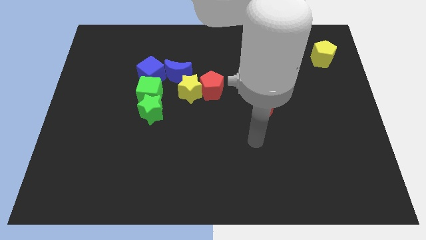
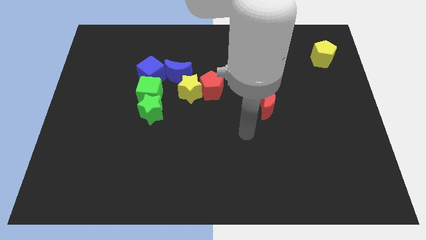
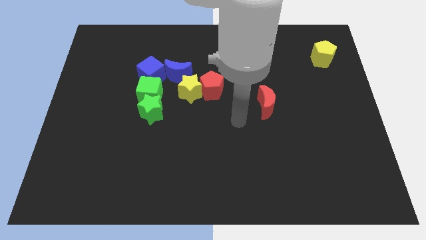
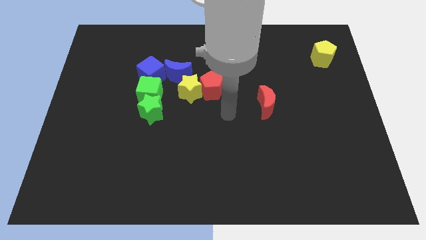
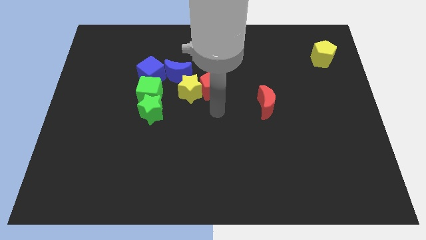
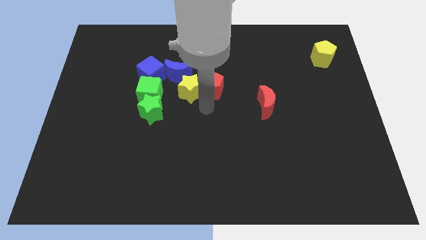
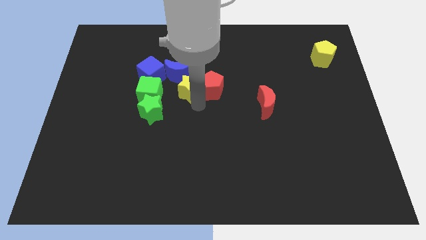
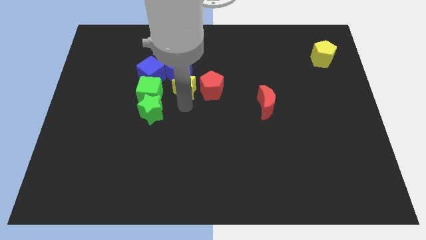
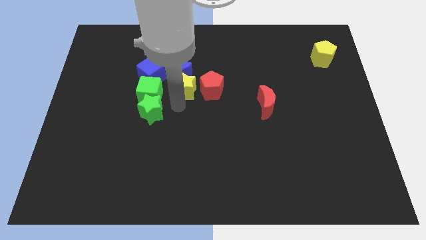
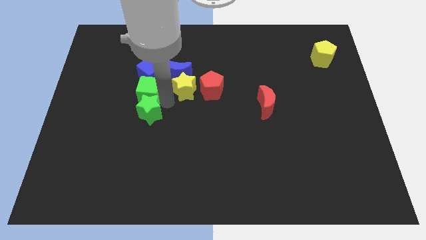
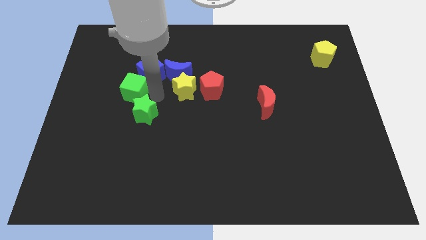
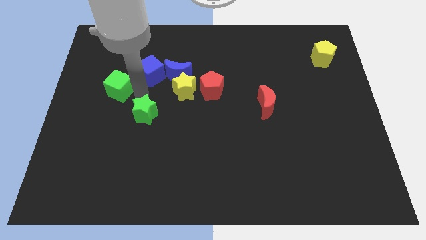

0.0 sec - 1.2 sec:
separate the green star from the green cube

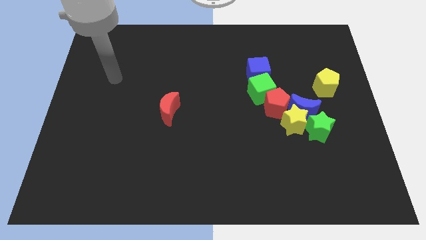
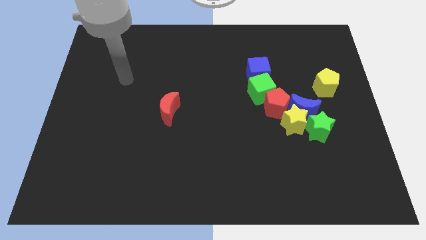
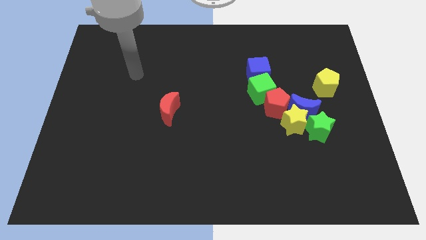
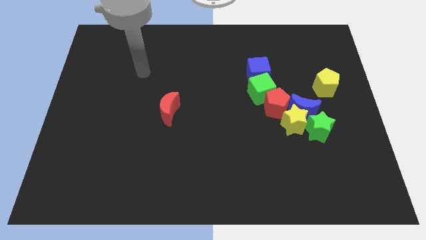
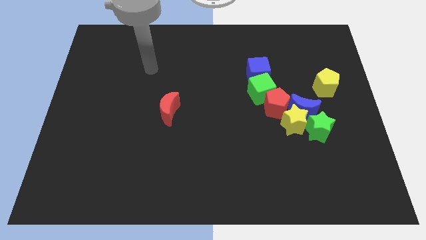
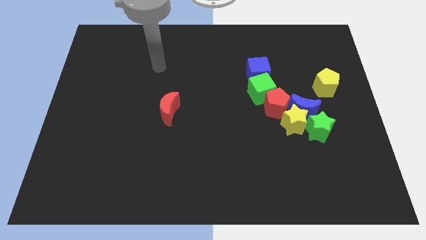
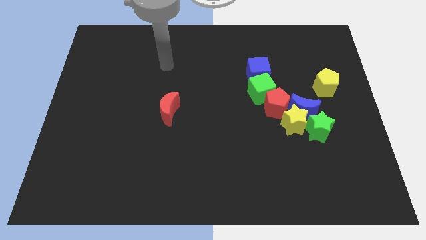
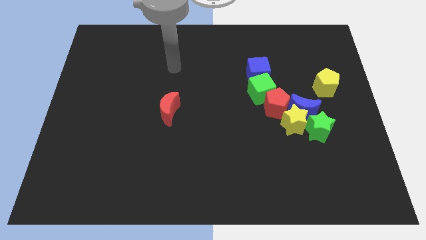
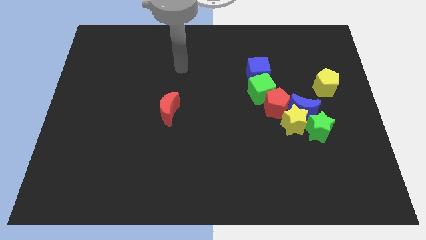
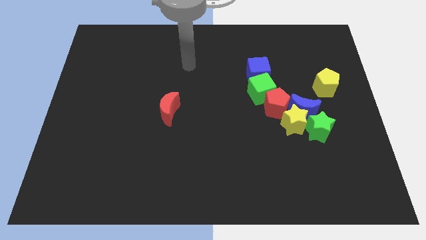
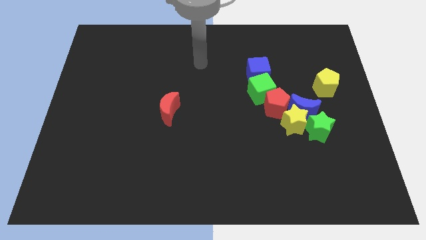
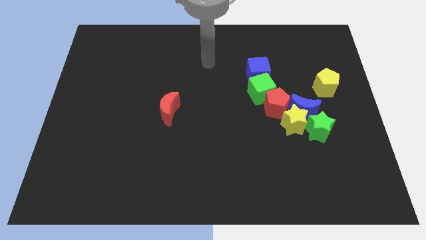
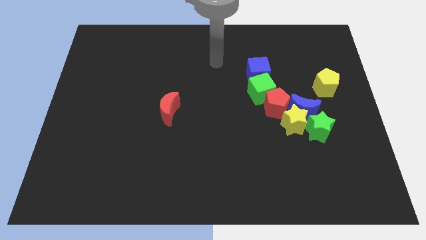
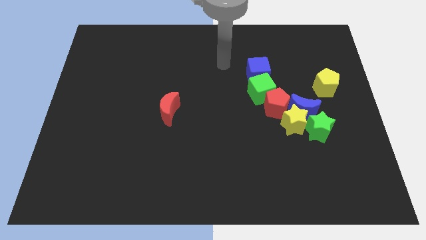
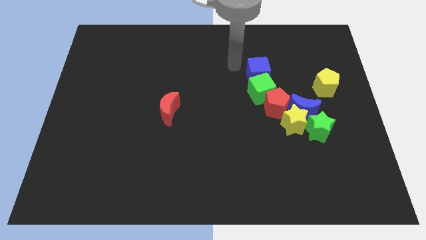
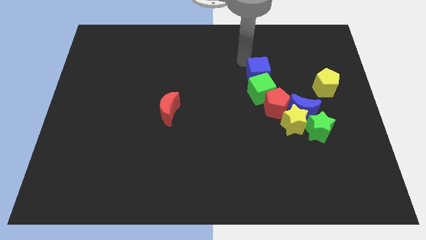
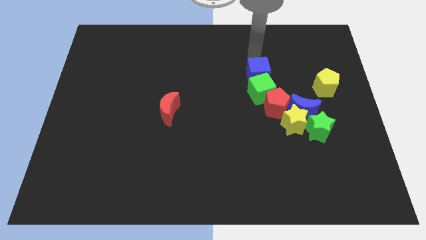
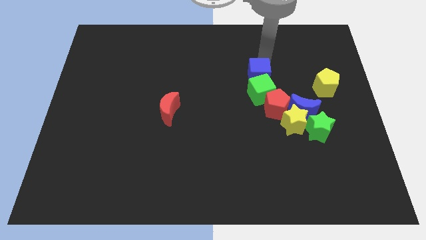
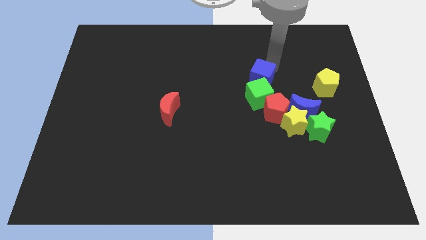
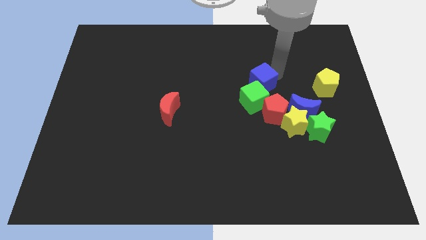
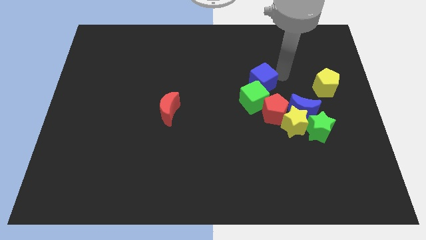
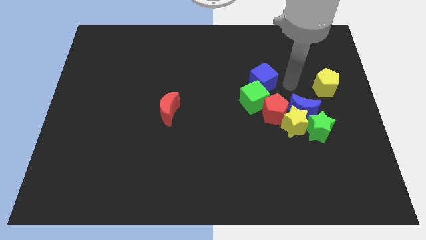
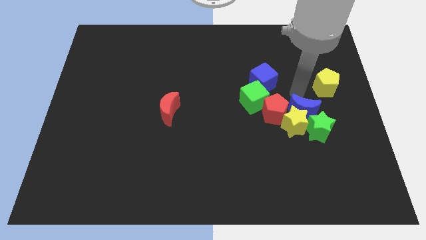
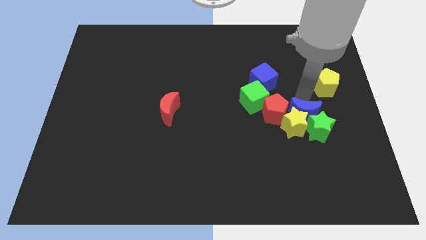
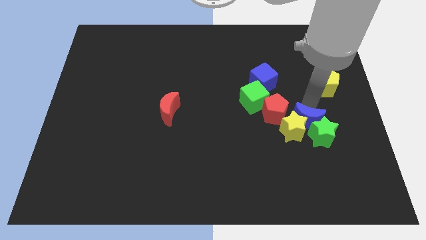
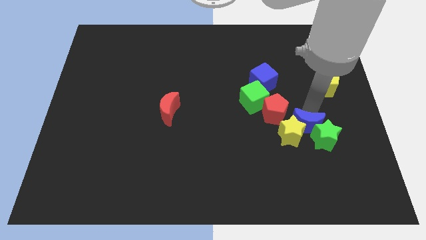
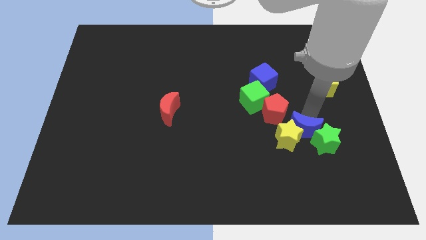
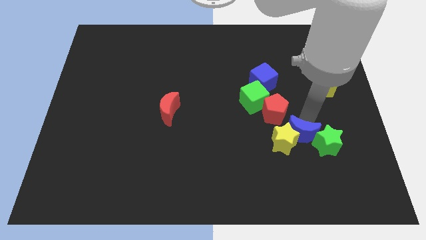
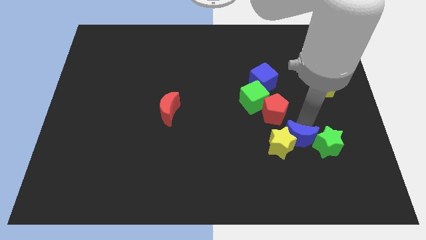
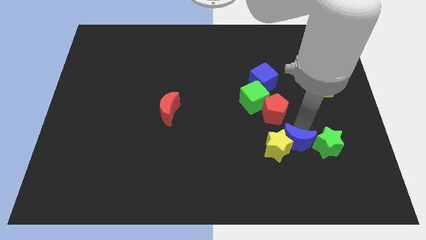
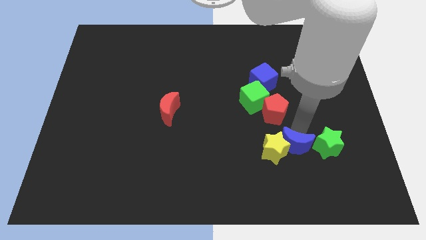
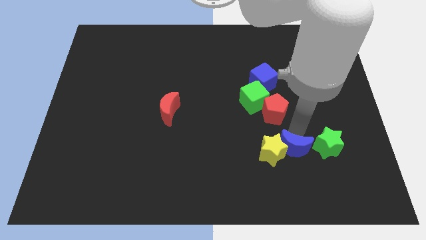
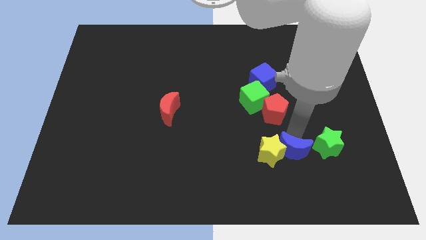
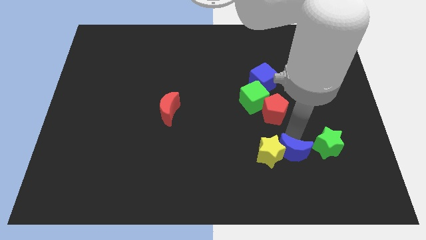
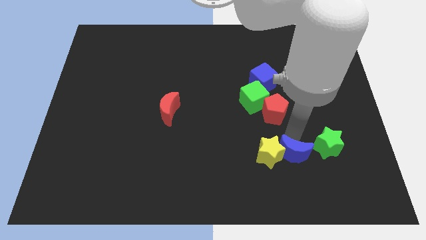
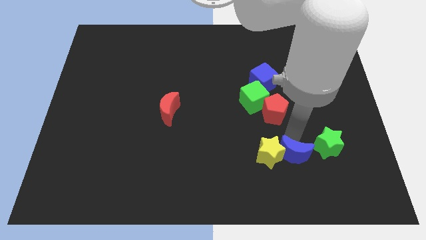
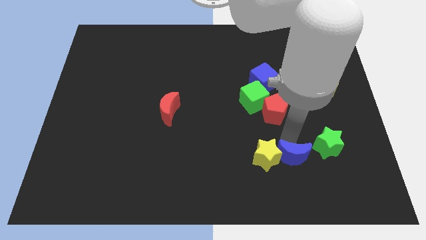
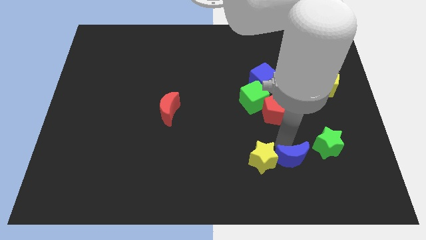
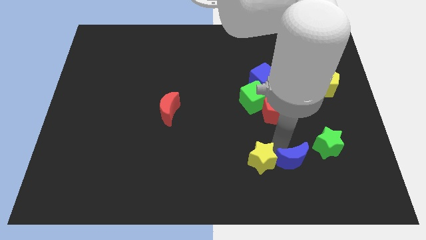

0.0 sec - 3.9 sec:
move the yellow star away from the clump

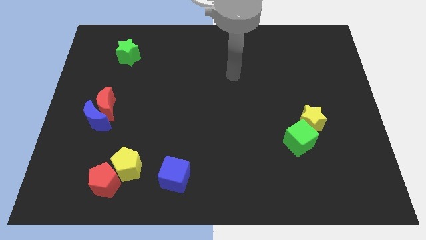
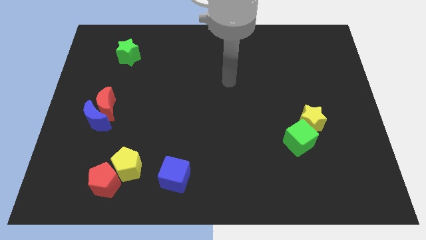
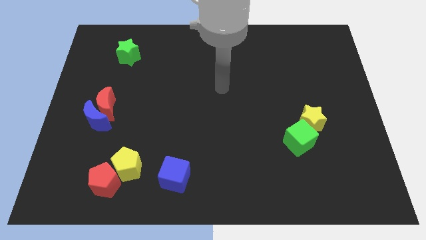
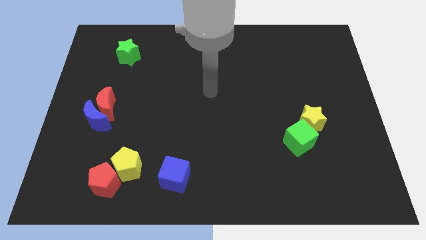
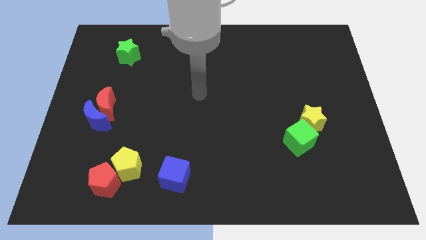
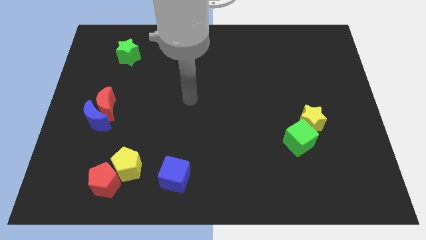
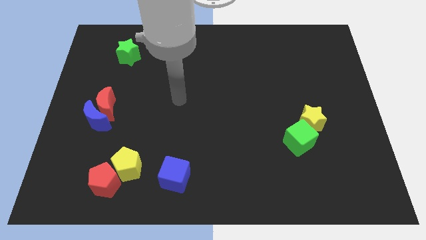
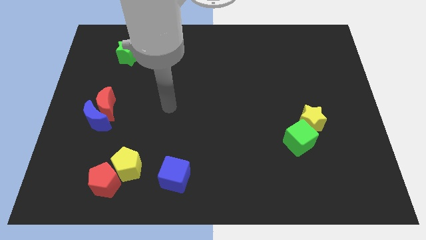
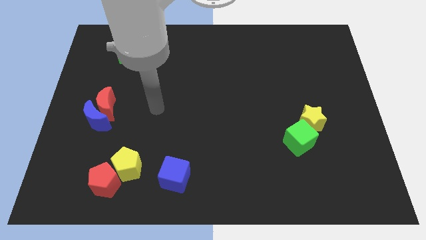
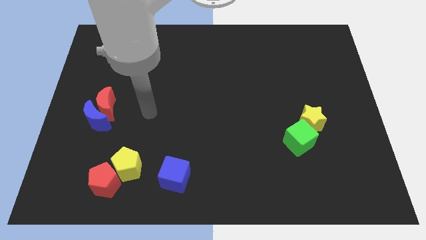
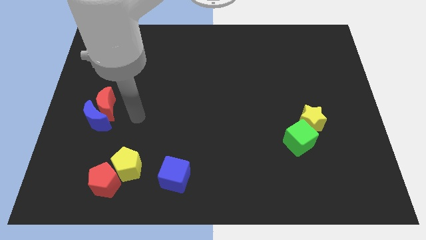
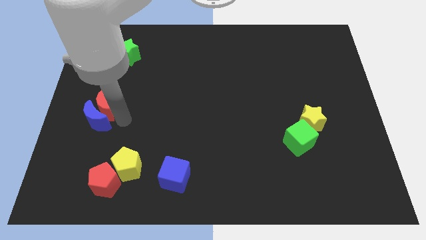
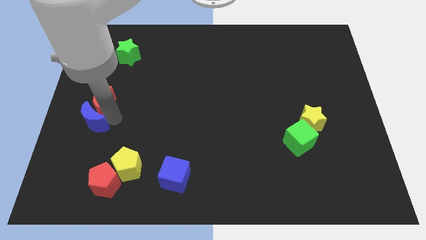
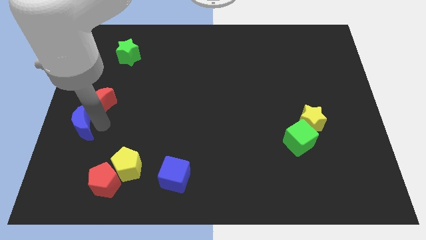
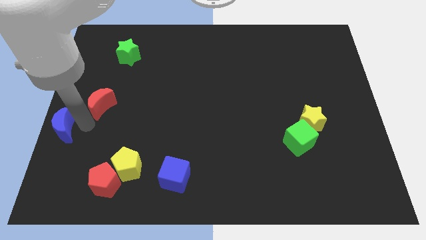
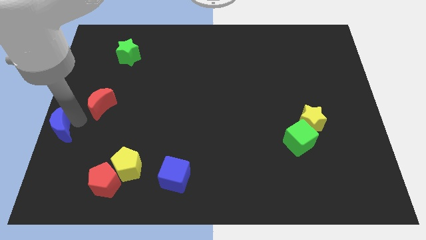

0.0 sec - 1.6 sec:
pull the red moon apart from the blue moon

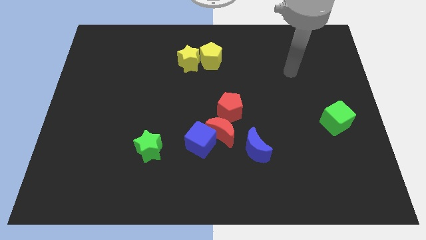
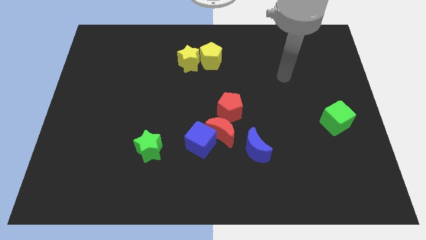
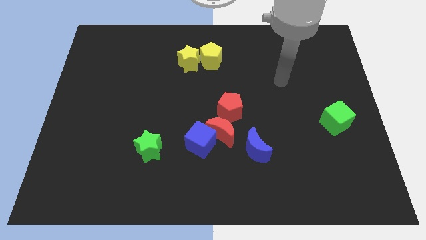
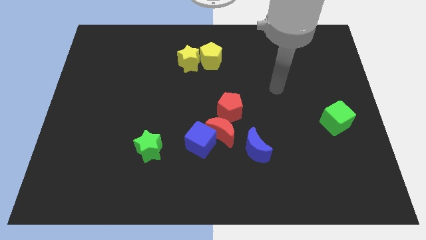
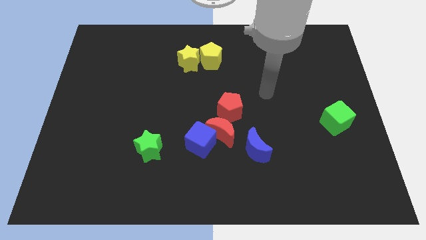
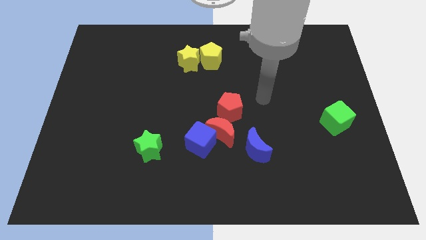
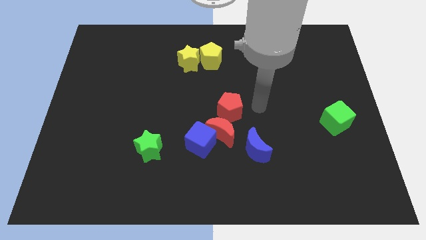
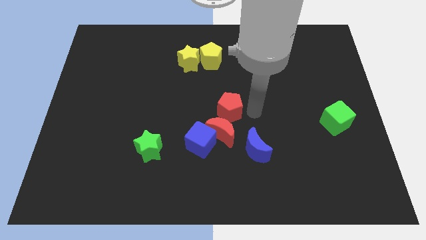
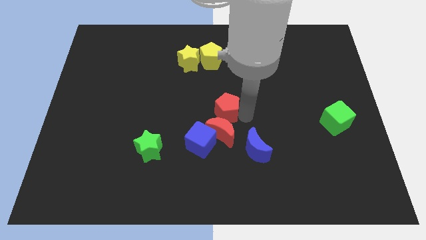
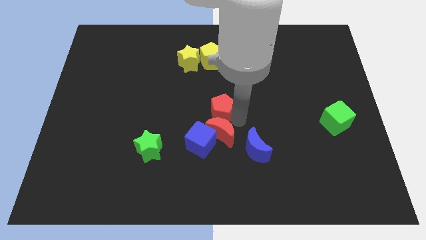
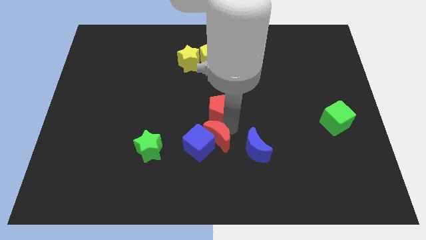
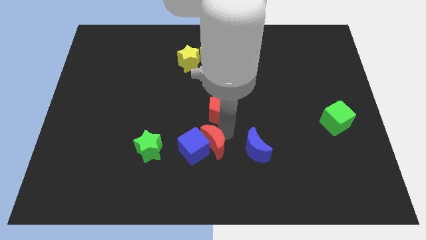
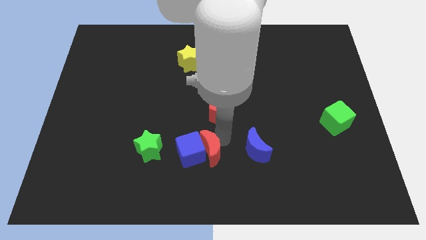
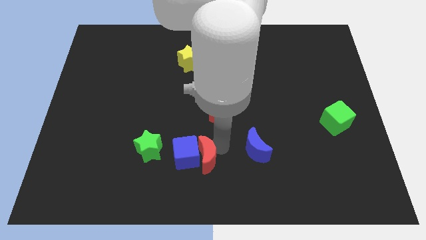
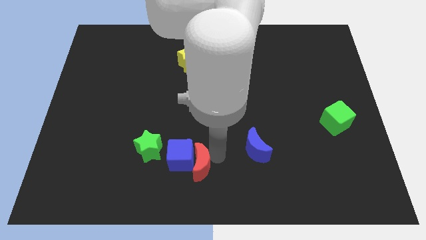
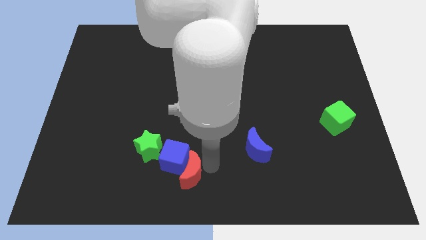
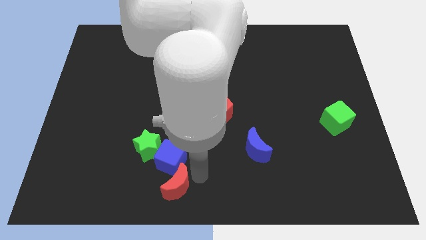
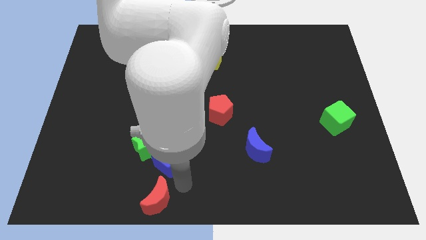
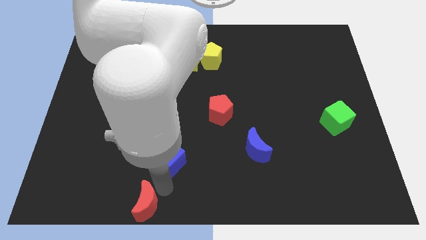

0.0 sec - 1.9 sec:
separate the blue cube from the red moon

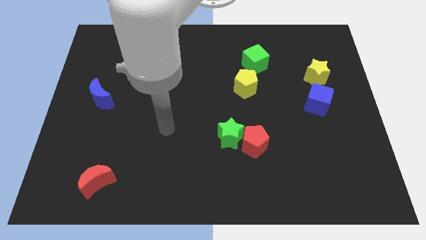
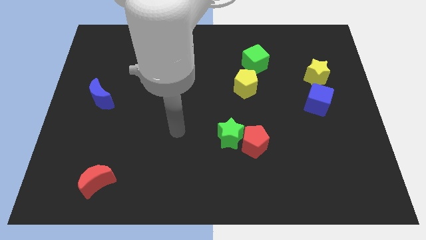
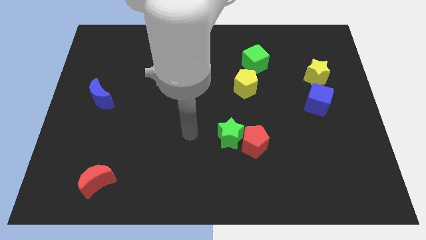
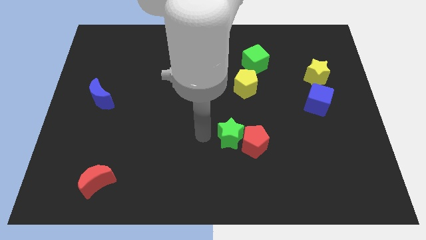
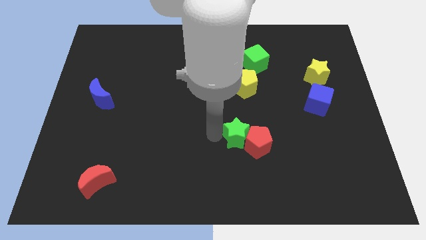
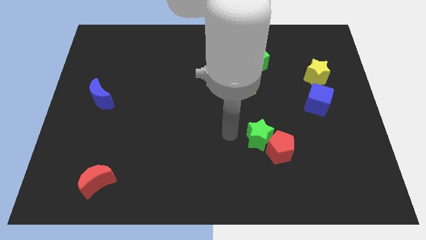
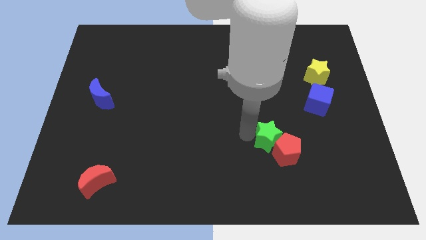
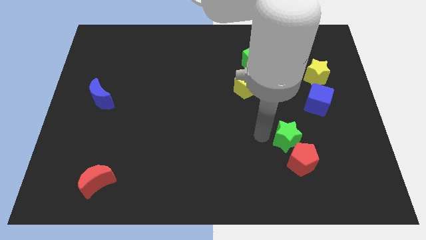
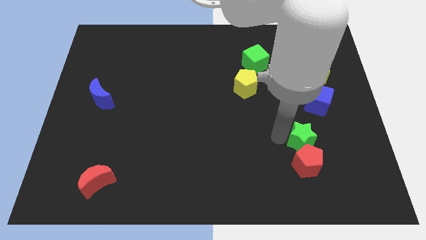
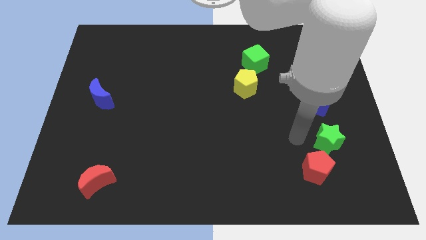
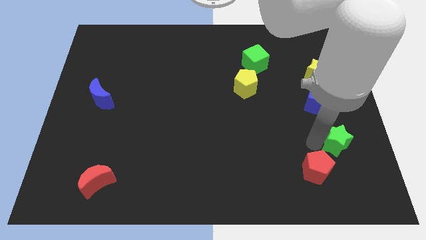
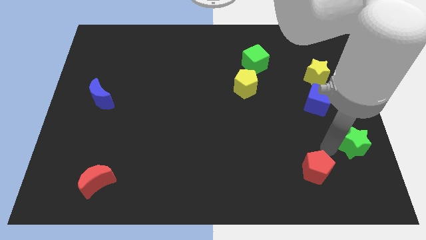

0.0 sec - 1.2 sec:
separate the red pentagon from the green star
